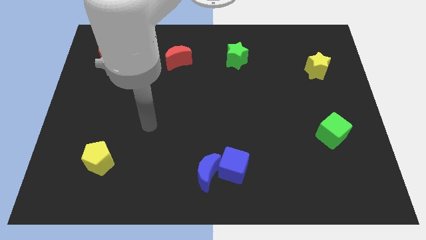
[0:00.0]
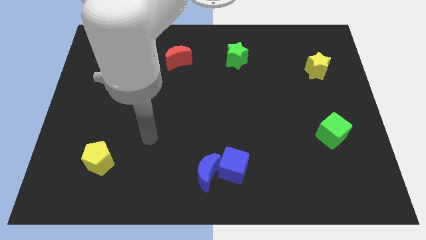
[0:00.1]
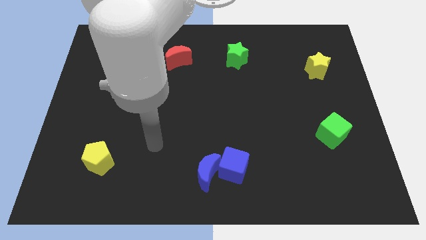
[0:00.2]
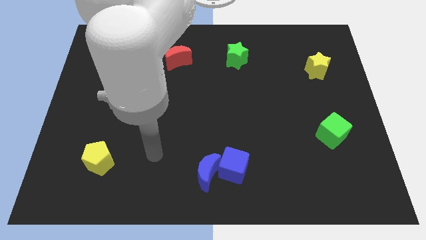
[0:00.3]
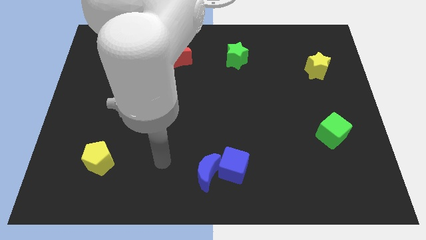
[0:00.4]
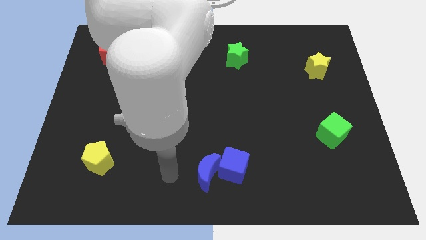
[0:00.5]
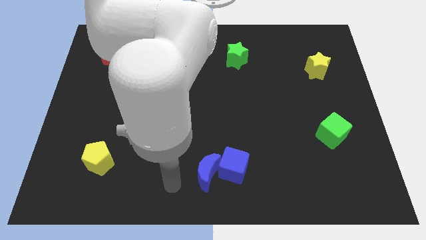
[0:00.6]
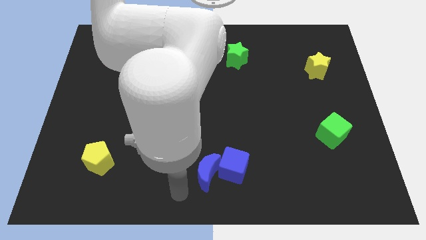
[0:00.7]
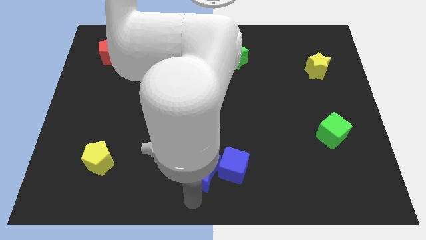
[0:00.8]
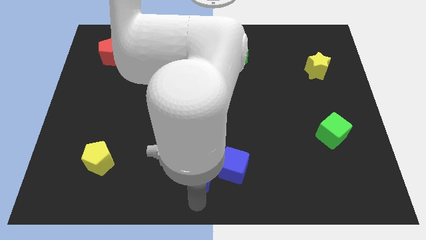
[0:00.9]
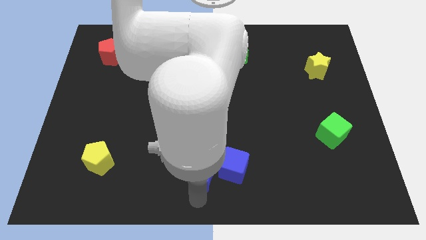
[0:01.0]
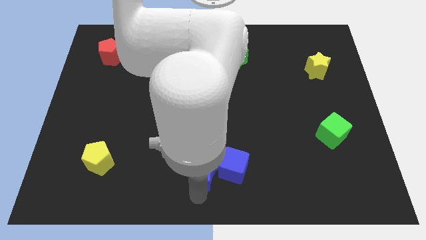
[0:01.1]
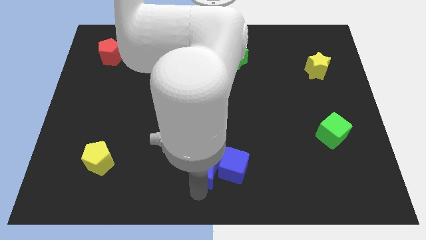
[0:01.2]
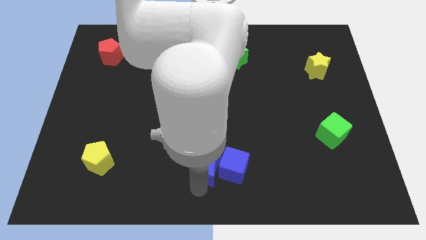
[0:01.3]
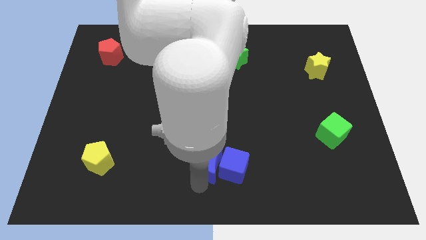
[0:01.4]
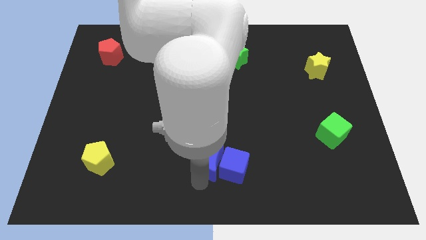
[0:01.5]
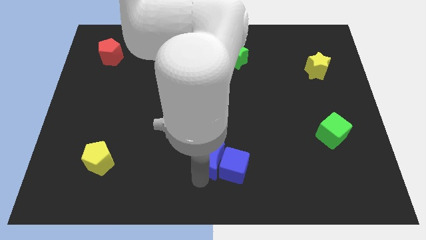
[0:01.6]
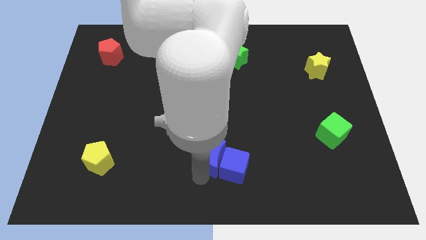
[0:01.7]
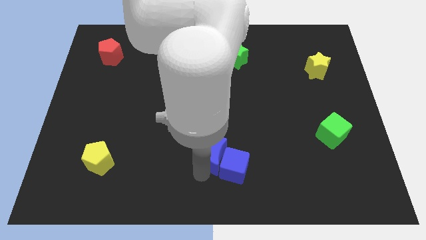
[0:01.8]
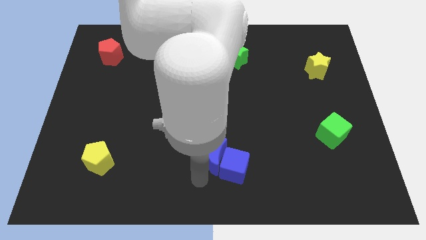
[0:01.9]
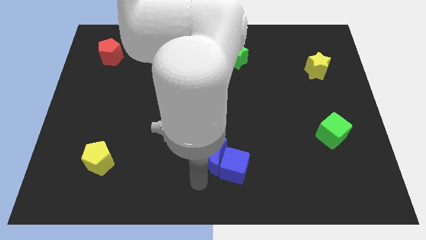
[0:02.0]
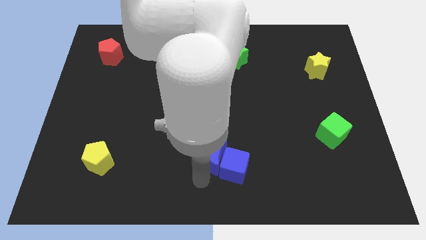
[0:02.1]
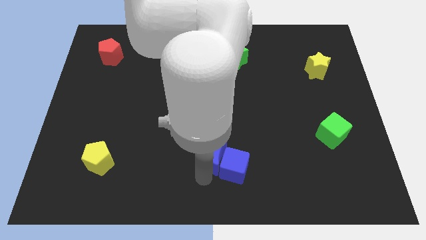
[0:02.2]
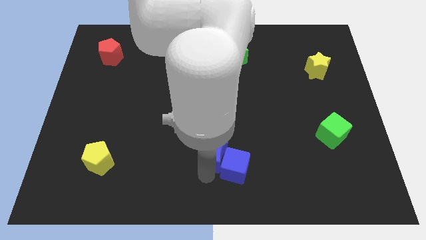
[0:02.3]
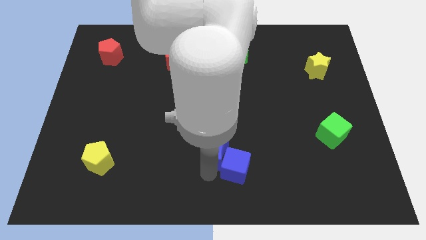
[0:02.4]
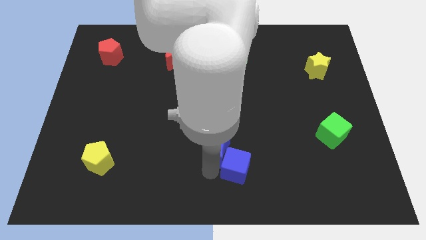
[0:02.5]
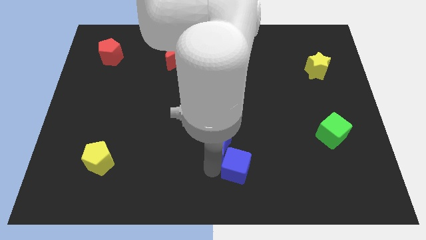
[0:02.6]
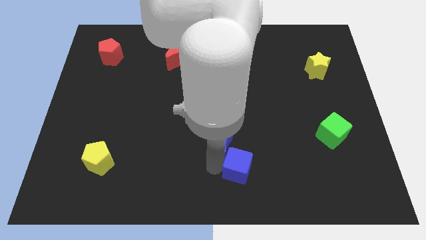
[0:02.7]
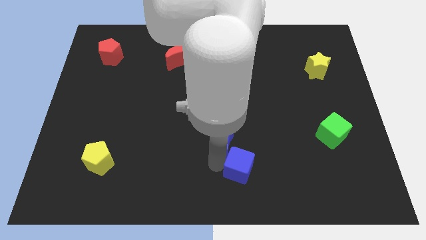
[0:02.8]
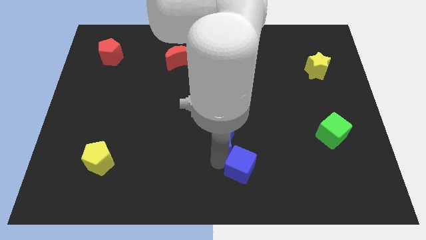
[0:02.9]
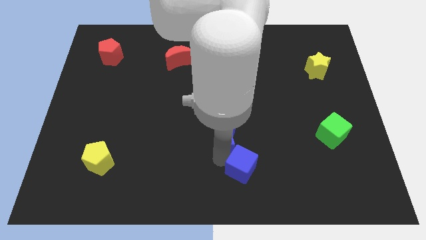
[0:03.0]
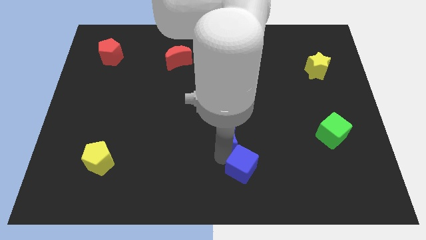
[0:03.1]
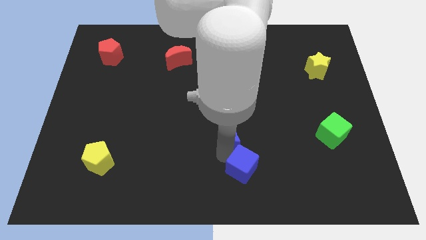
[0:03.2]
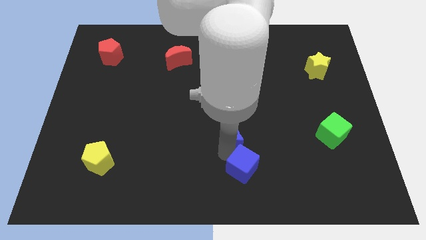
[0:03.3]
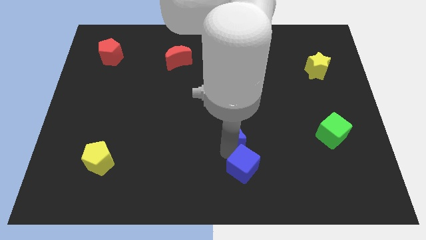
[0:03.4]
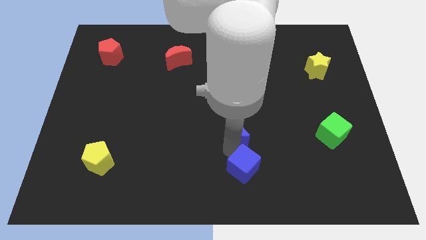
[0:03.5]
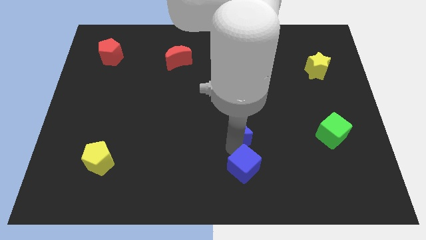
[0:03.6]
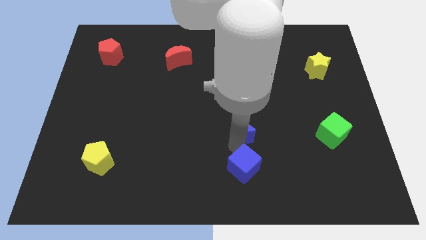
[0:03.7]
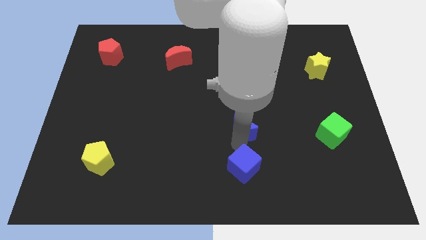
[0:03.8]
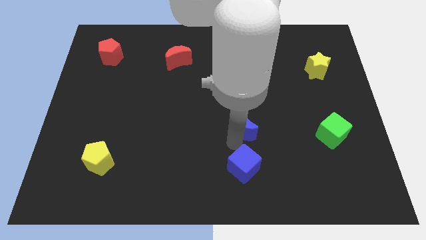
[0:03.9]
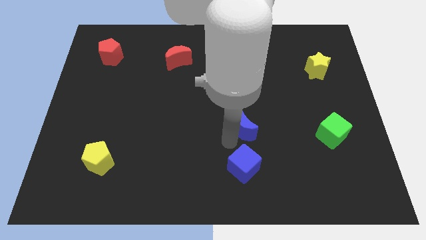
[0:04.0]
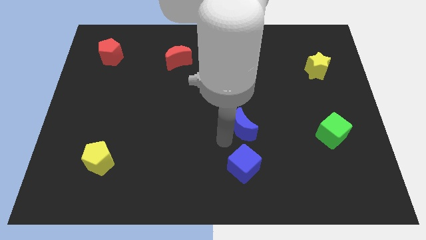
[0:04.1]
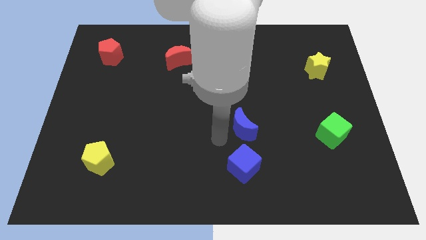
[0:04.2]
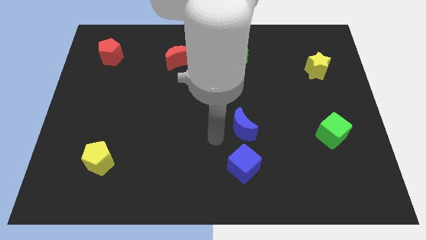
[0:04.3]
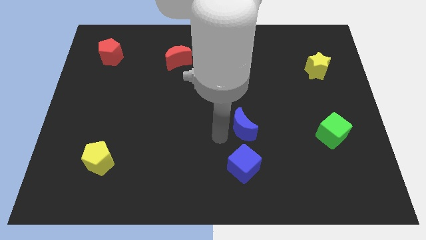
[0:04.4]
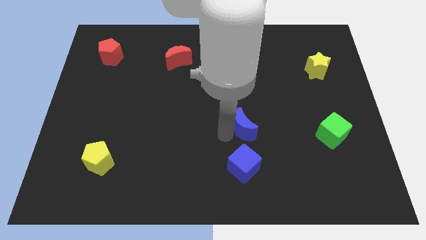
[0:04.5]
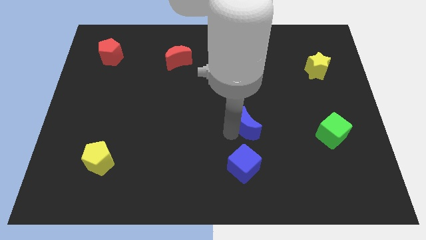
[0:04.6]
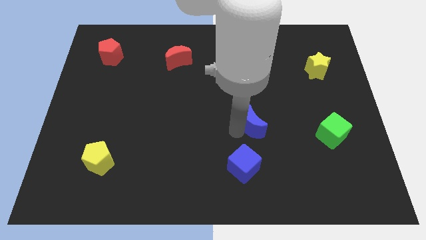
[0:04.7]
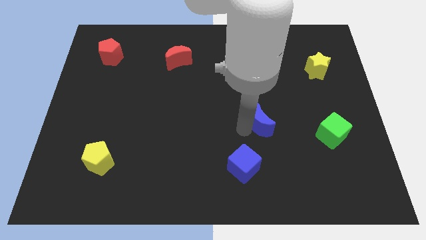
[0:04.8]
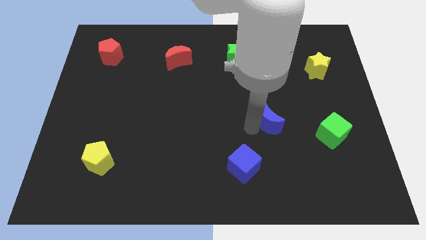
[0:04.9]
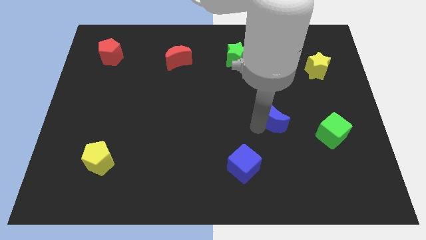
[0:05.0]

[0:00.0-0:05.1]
move the blue moon up and to the right

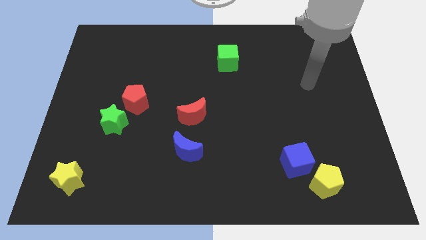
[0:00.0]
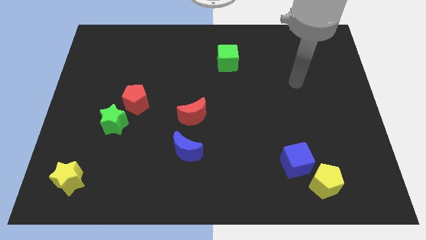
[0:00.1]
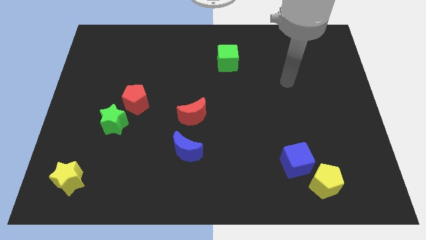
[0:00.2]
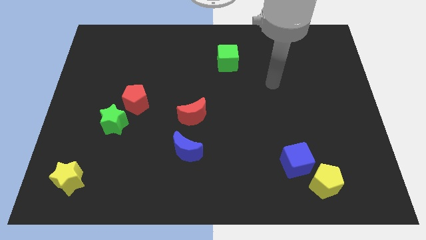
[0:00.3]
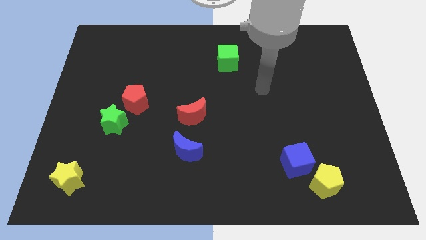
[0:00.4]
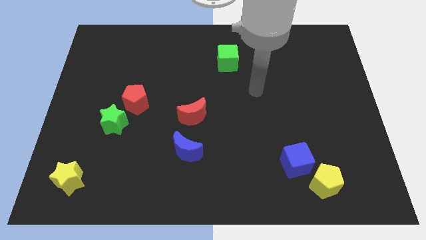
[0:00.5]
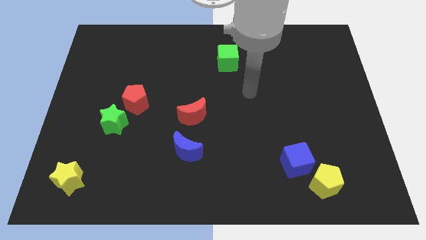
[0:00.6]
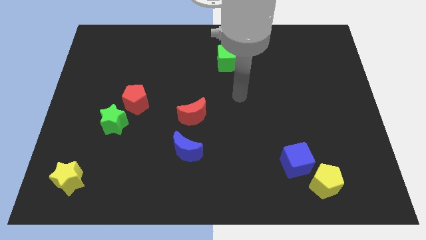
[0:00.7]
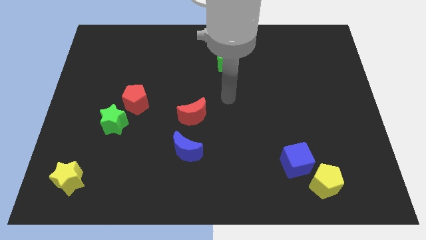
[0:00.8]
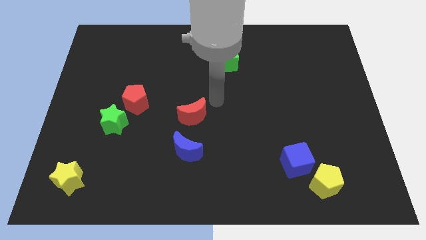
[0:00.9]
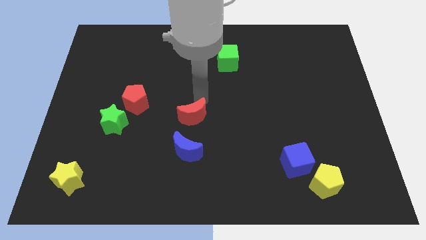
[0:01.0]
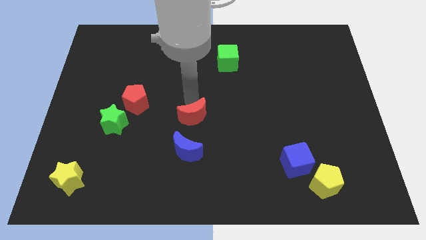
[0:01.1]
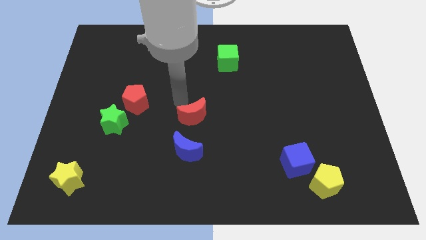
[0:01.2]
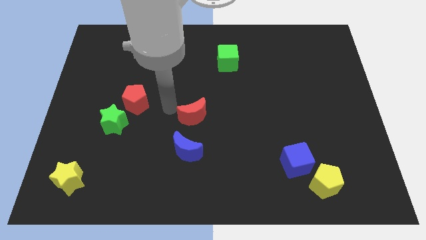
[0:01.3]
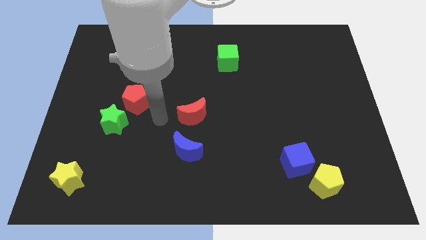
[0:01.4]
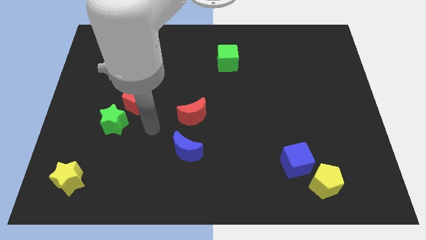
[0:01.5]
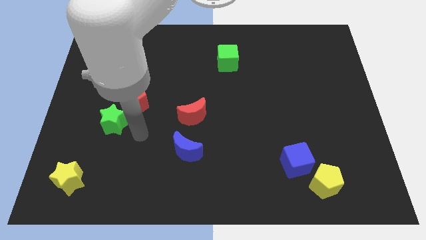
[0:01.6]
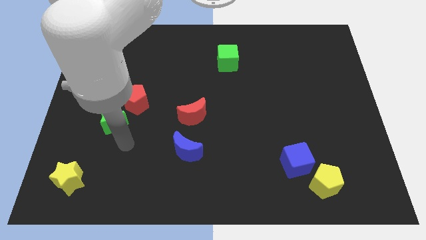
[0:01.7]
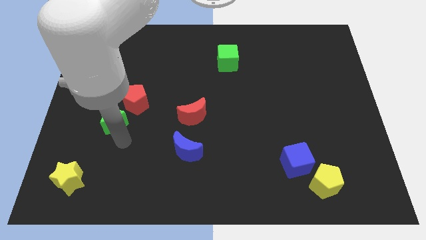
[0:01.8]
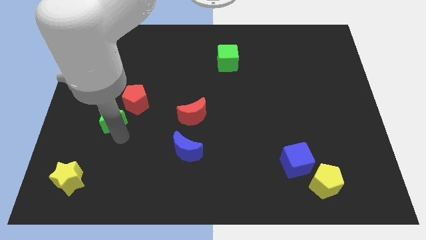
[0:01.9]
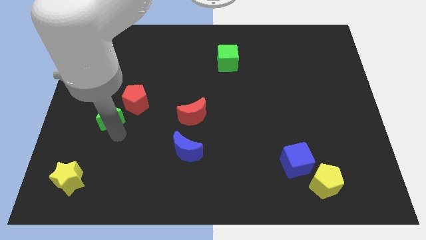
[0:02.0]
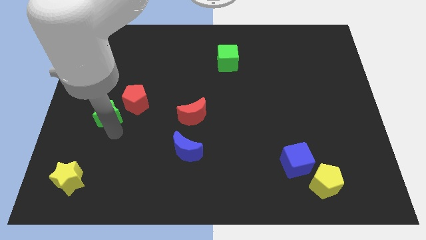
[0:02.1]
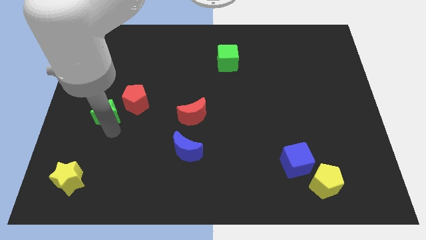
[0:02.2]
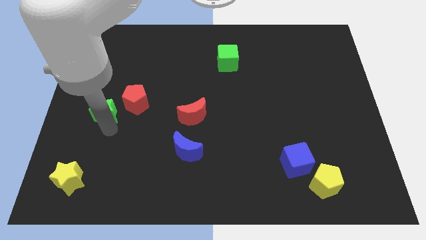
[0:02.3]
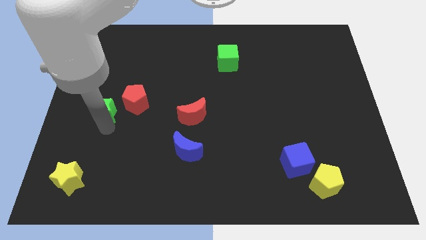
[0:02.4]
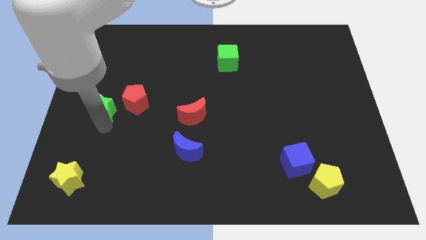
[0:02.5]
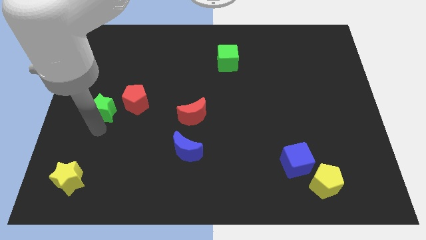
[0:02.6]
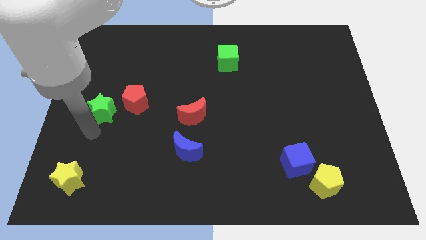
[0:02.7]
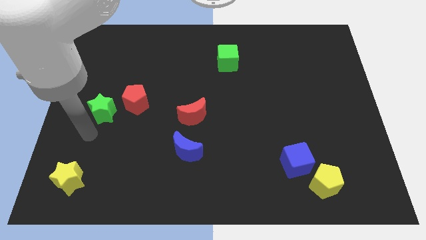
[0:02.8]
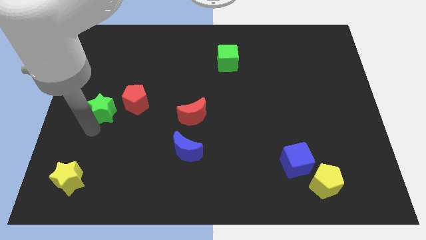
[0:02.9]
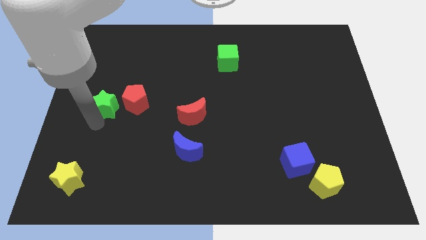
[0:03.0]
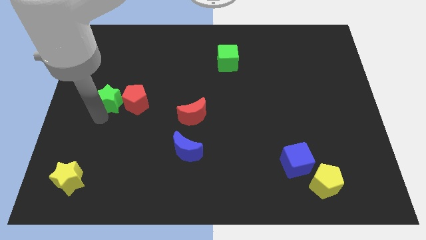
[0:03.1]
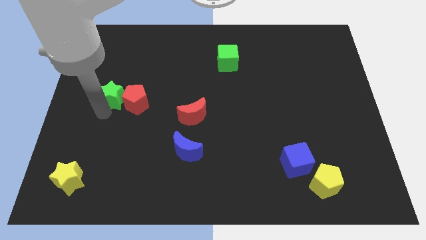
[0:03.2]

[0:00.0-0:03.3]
slide the green star up somewhat
